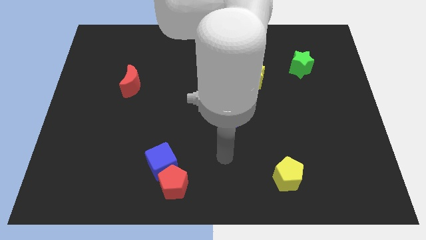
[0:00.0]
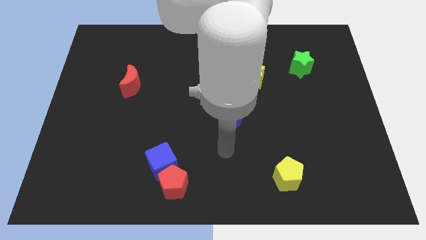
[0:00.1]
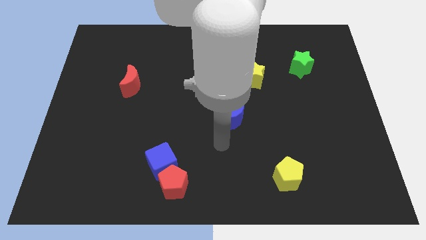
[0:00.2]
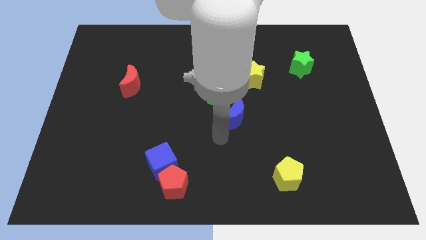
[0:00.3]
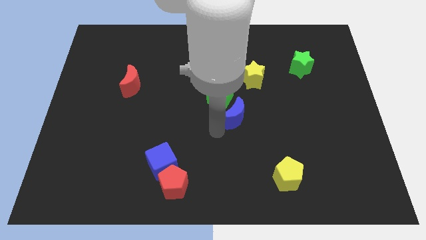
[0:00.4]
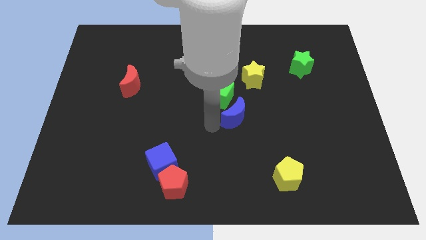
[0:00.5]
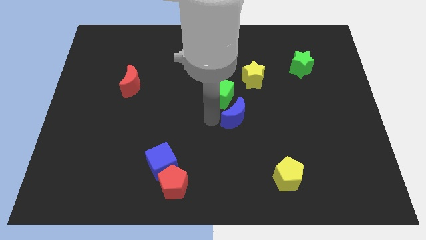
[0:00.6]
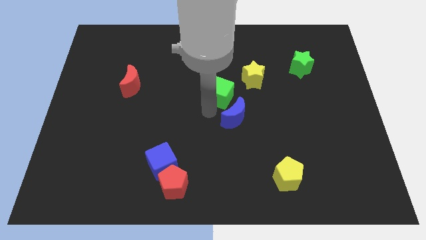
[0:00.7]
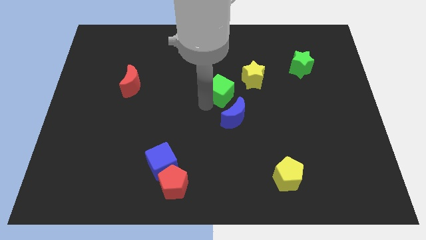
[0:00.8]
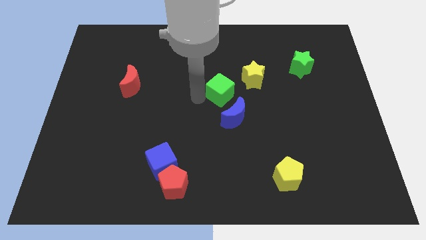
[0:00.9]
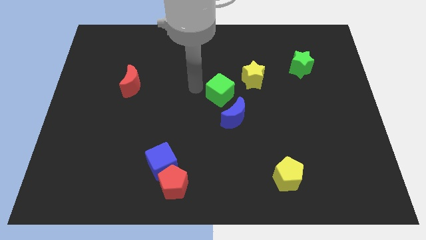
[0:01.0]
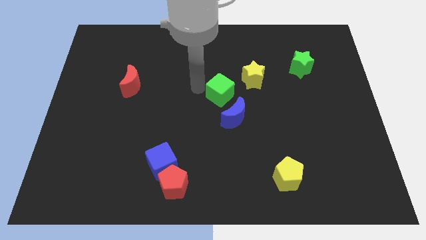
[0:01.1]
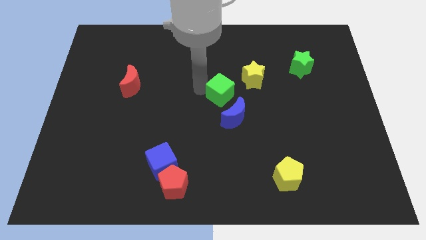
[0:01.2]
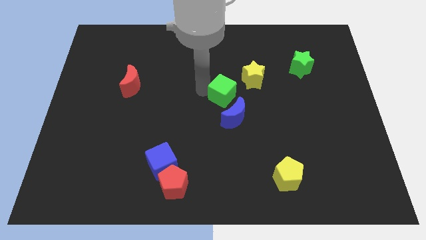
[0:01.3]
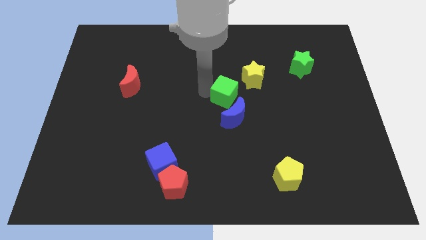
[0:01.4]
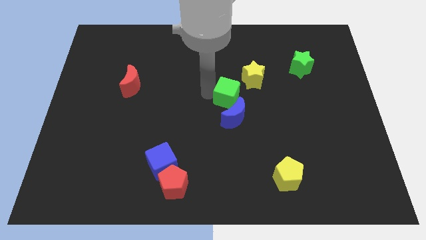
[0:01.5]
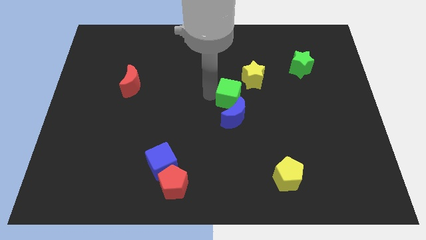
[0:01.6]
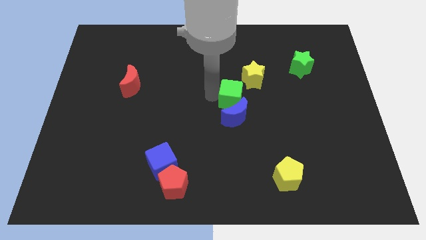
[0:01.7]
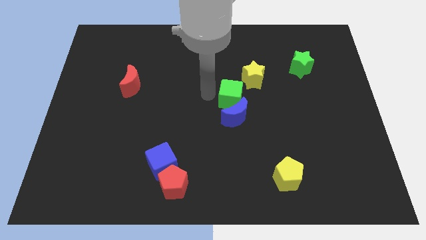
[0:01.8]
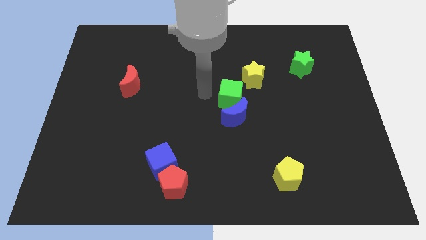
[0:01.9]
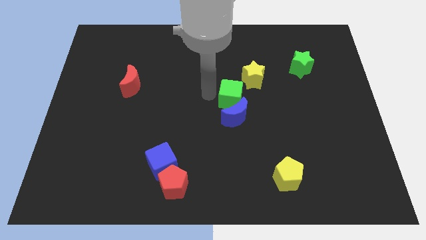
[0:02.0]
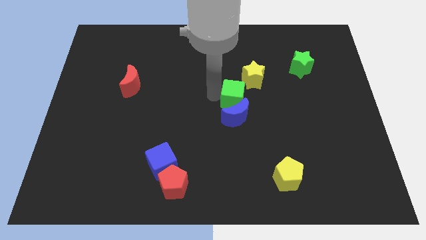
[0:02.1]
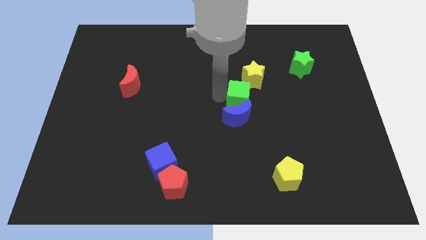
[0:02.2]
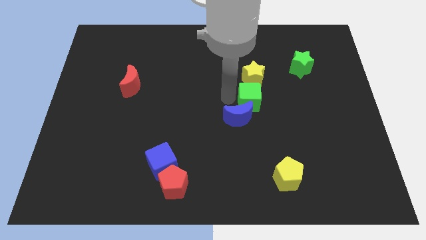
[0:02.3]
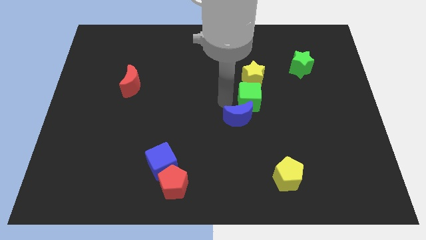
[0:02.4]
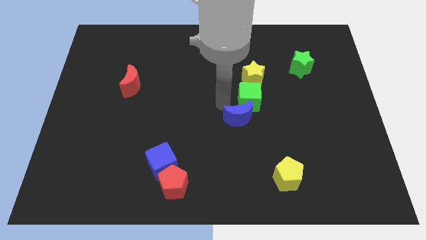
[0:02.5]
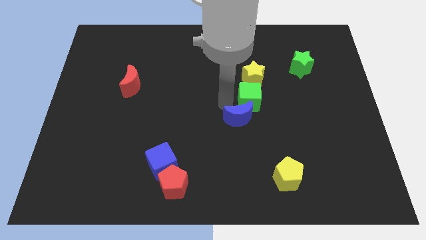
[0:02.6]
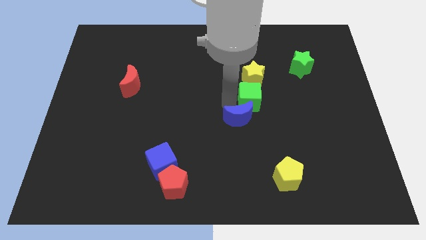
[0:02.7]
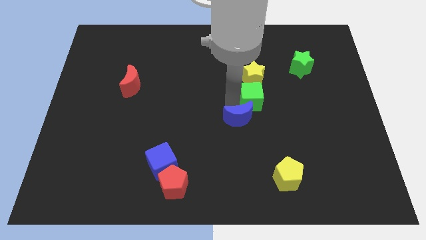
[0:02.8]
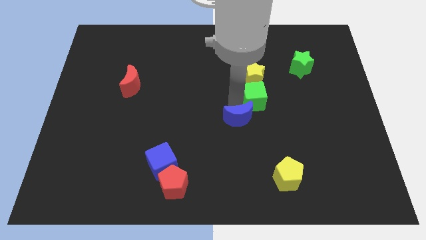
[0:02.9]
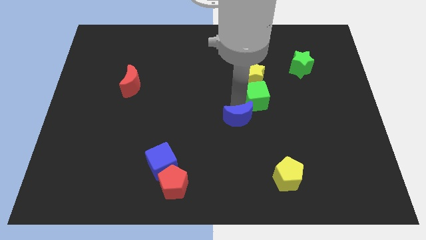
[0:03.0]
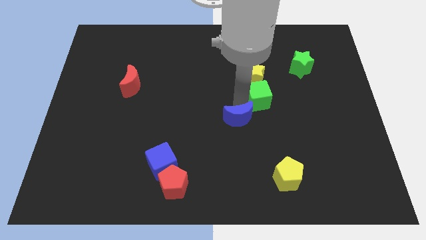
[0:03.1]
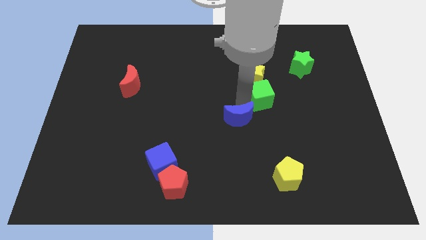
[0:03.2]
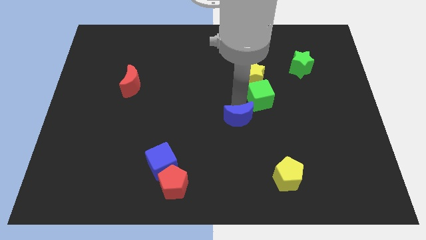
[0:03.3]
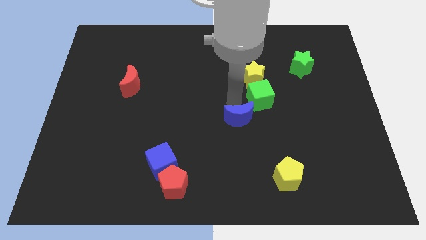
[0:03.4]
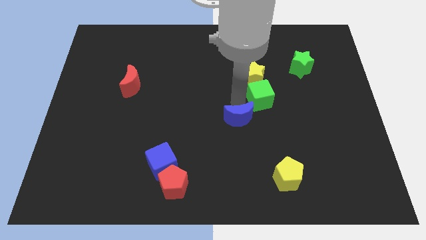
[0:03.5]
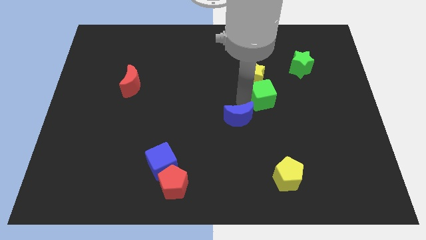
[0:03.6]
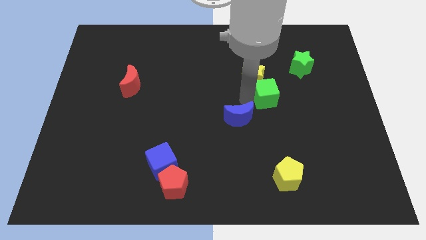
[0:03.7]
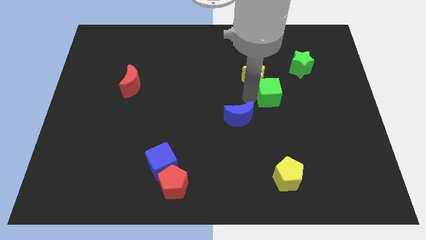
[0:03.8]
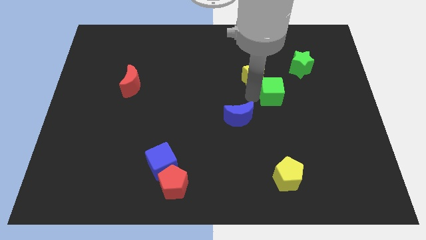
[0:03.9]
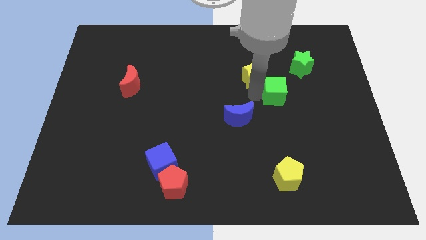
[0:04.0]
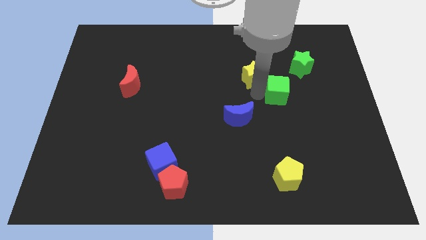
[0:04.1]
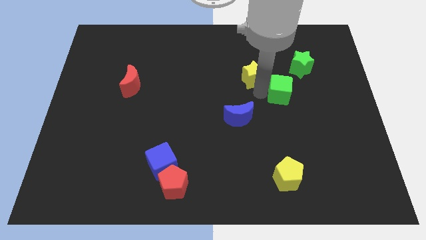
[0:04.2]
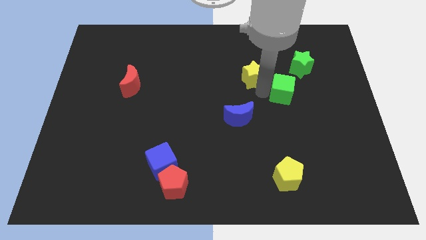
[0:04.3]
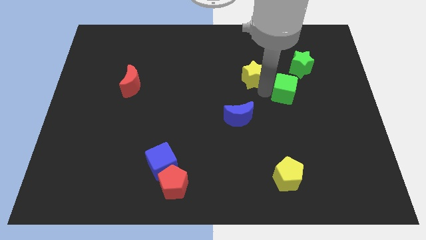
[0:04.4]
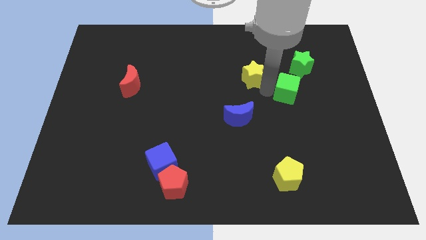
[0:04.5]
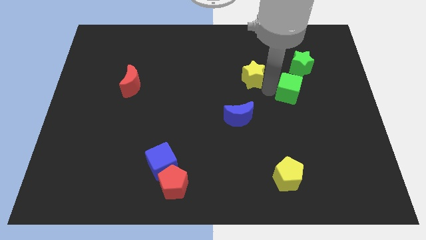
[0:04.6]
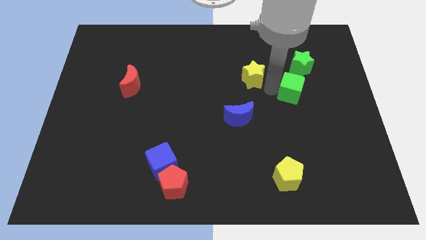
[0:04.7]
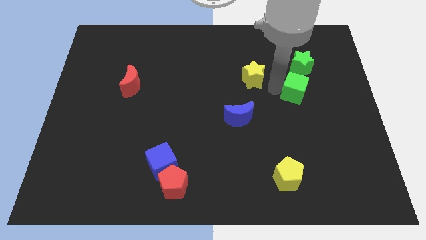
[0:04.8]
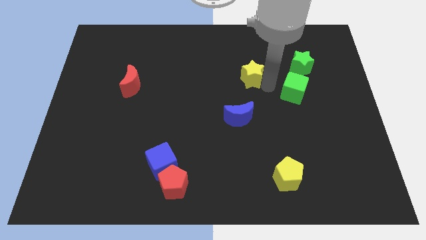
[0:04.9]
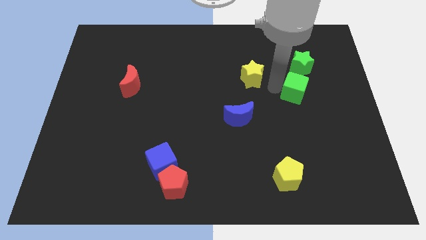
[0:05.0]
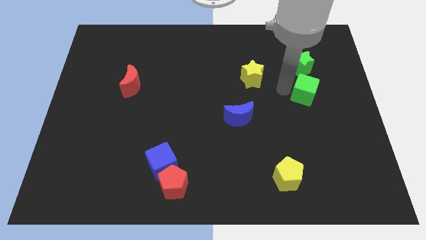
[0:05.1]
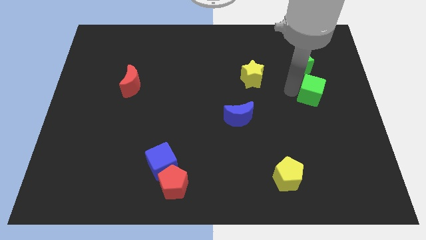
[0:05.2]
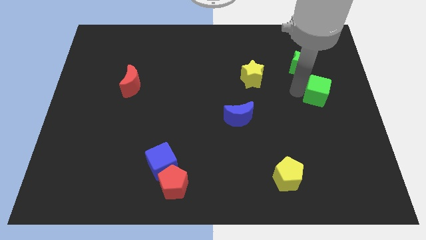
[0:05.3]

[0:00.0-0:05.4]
put the green cube to the right side

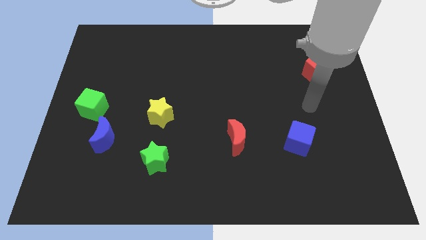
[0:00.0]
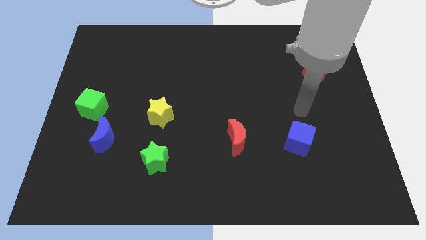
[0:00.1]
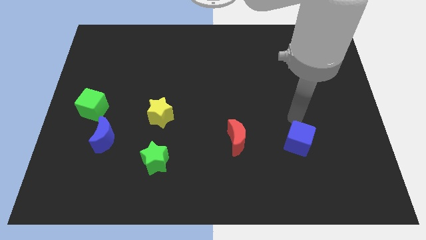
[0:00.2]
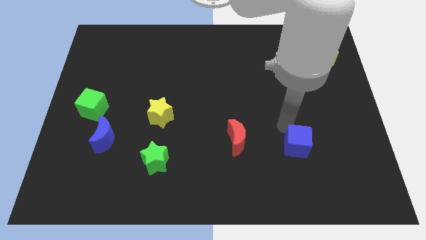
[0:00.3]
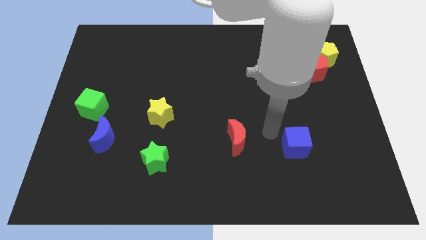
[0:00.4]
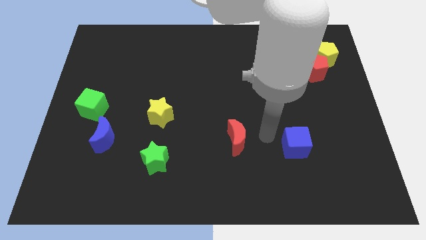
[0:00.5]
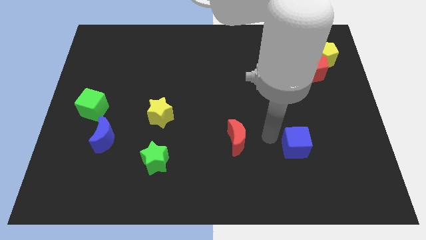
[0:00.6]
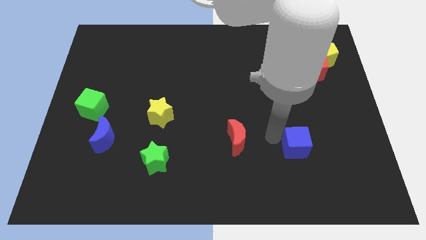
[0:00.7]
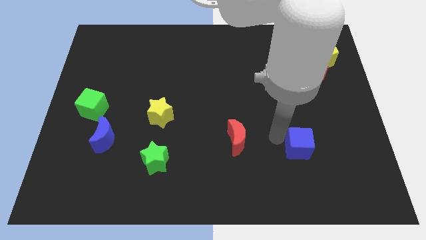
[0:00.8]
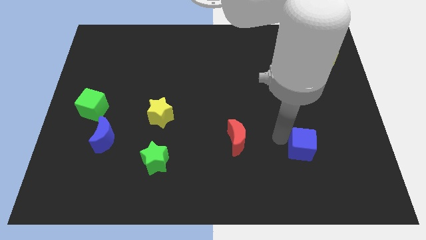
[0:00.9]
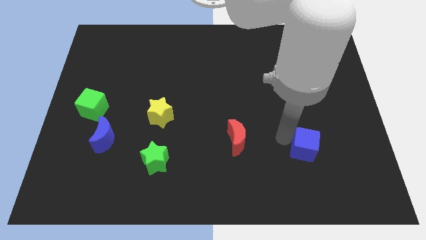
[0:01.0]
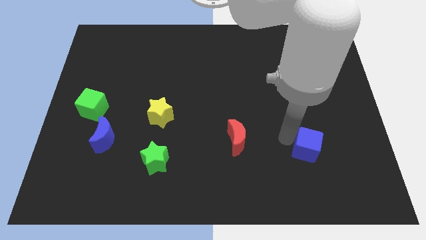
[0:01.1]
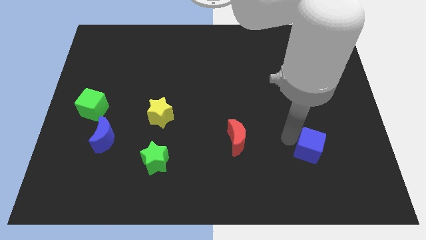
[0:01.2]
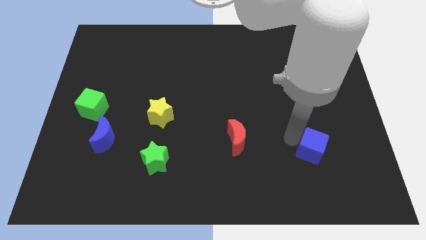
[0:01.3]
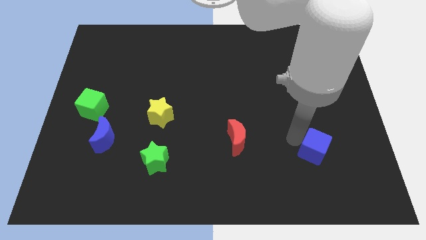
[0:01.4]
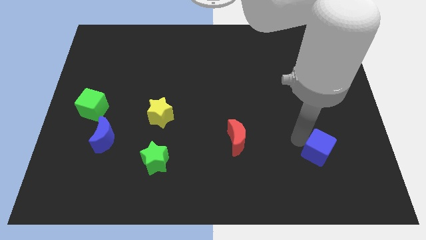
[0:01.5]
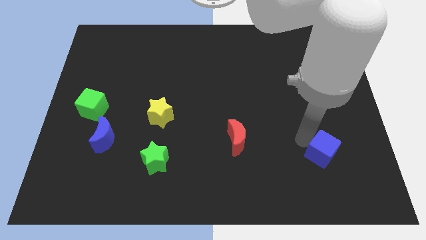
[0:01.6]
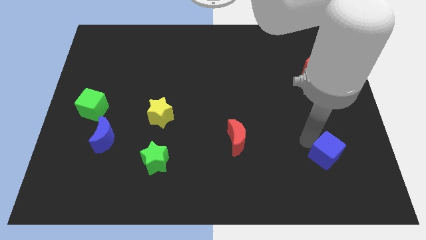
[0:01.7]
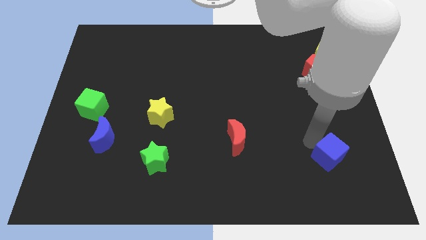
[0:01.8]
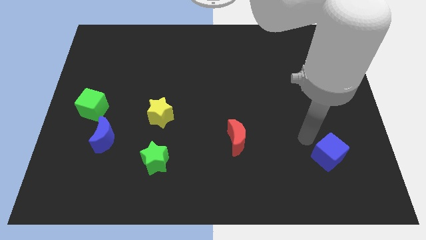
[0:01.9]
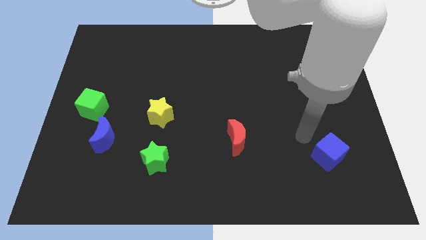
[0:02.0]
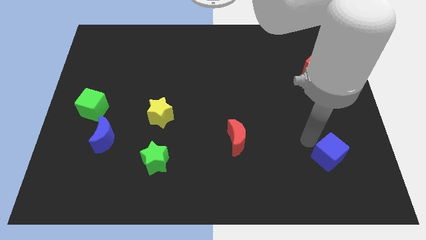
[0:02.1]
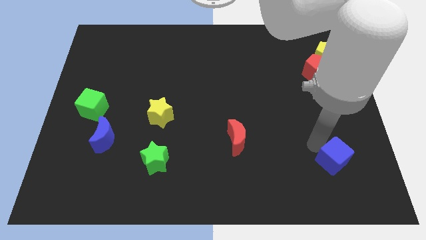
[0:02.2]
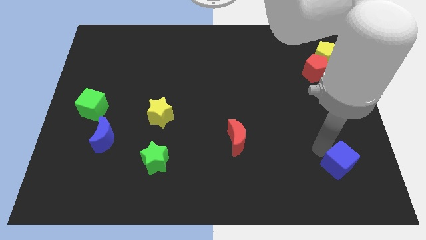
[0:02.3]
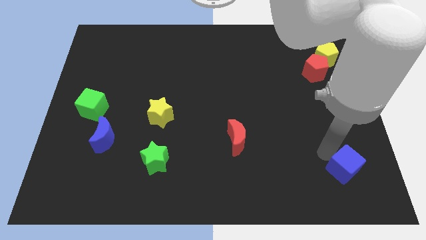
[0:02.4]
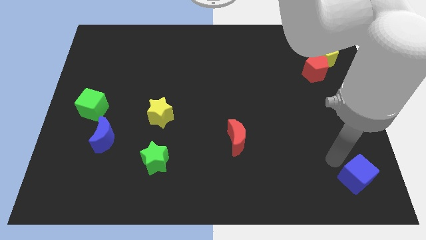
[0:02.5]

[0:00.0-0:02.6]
slide the blue cube to the bottom right
